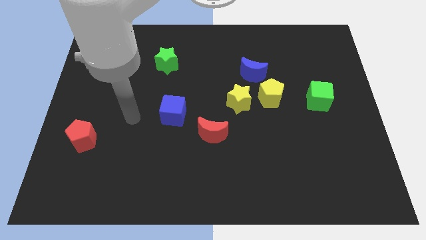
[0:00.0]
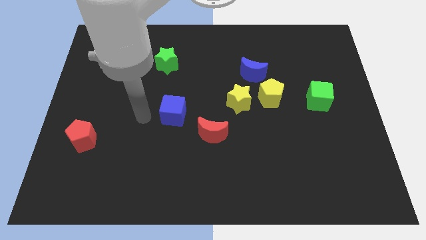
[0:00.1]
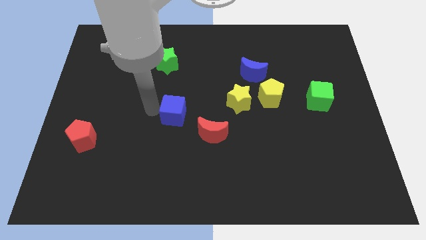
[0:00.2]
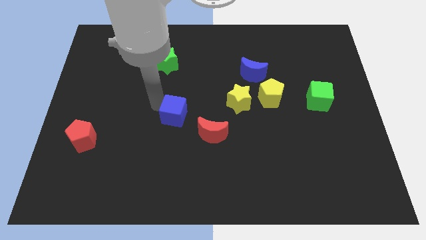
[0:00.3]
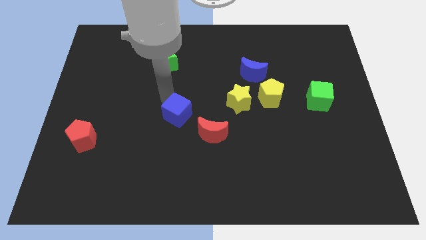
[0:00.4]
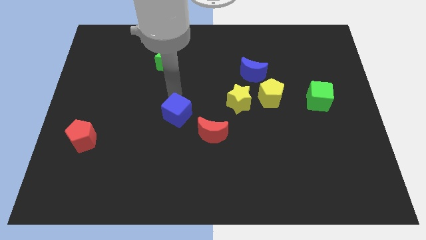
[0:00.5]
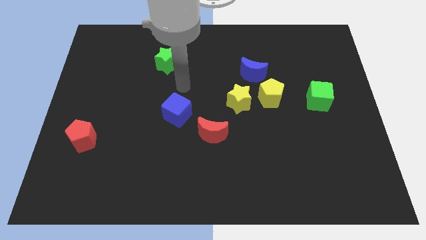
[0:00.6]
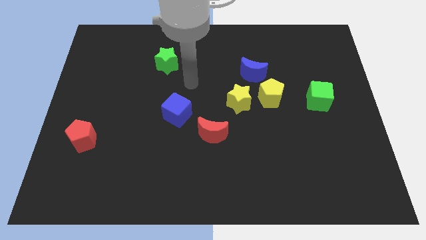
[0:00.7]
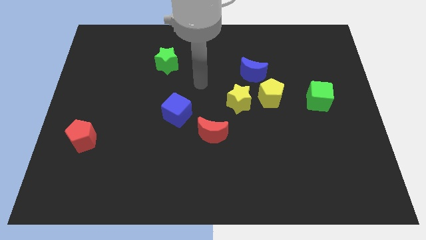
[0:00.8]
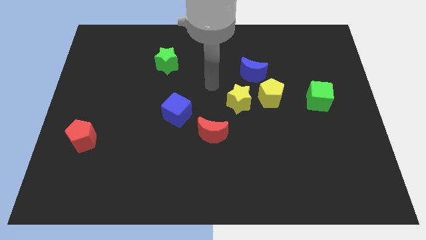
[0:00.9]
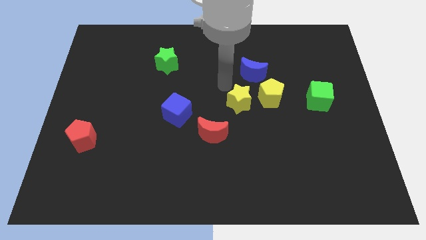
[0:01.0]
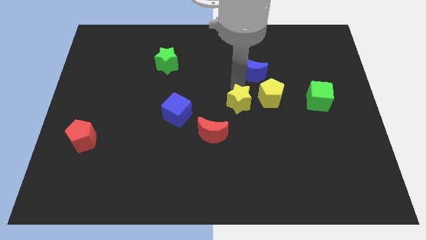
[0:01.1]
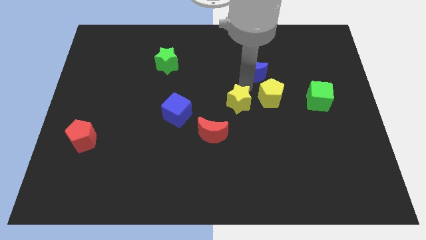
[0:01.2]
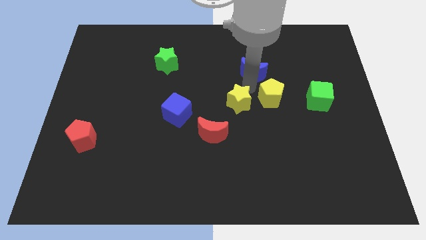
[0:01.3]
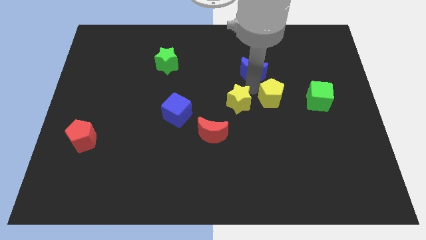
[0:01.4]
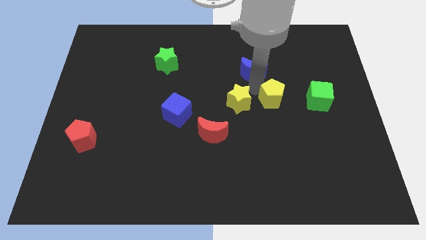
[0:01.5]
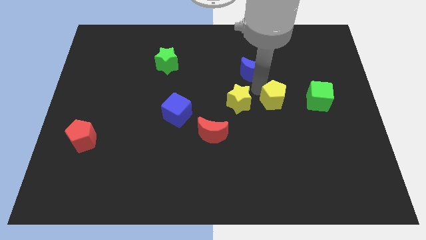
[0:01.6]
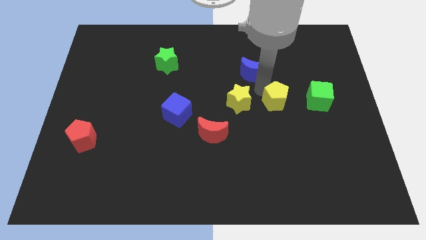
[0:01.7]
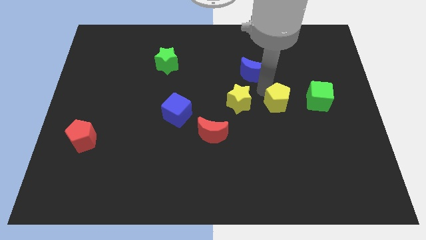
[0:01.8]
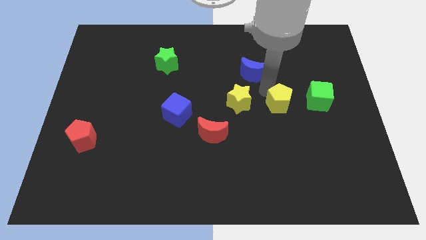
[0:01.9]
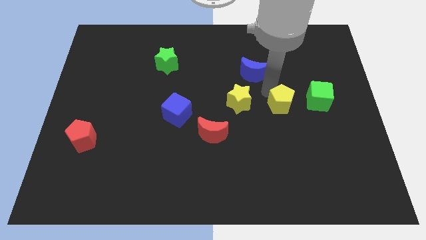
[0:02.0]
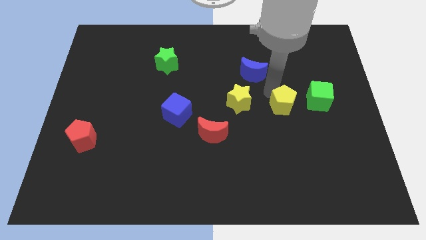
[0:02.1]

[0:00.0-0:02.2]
move the yellow pentagon away from the yellow star and blue moon

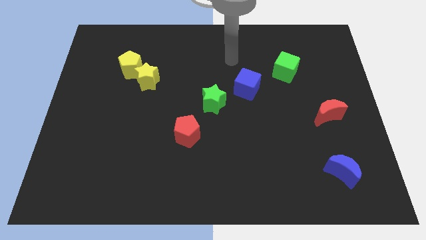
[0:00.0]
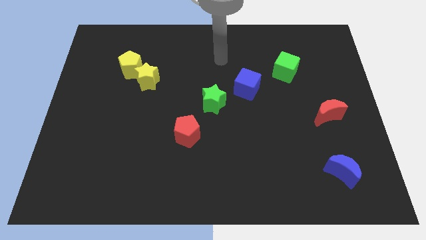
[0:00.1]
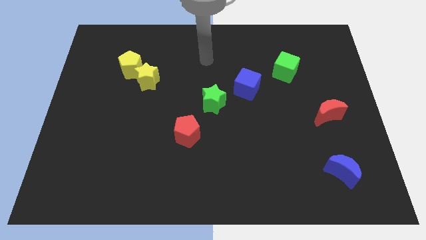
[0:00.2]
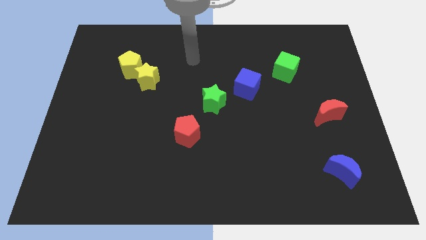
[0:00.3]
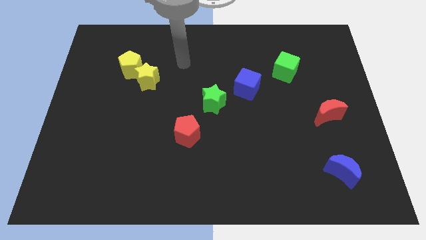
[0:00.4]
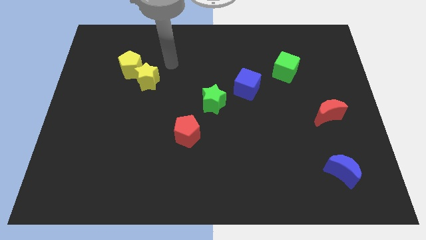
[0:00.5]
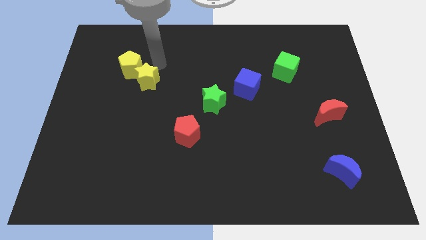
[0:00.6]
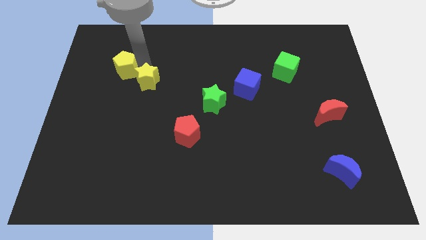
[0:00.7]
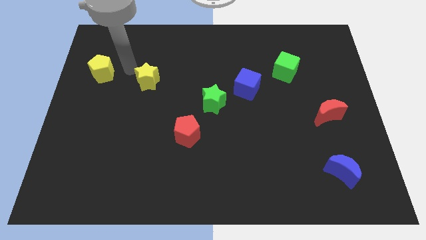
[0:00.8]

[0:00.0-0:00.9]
separate the yellow star from the yellow pentagon

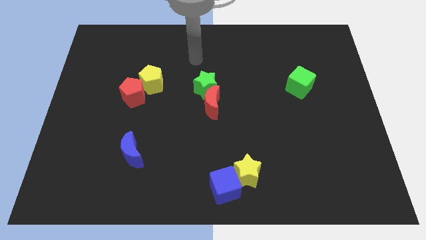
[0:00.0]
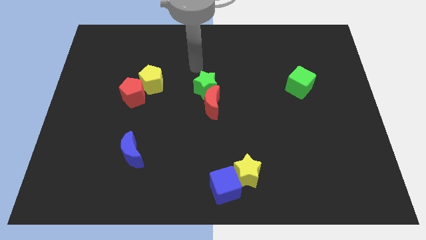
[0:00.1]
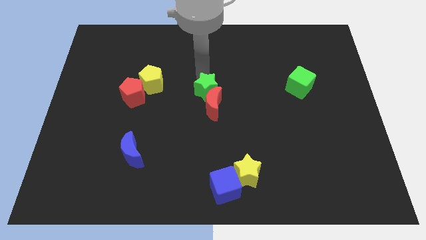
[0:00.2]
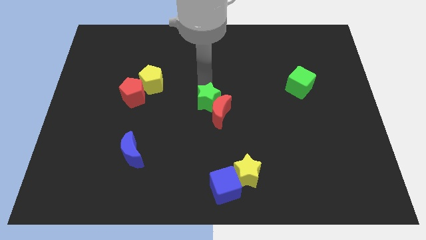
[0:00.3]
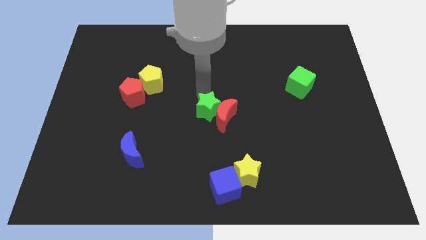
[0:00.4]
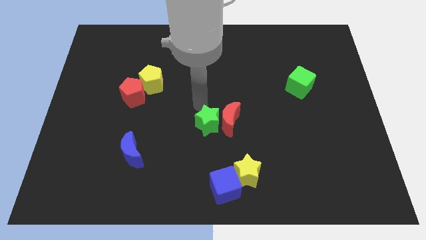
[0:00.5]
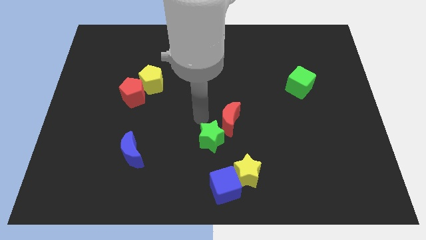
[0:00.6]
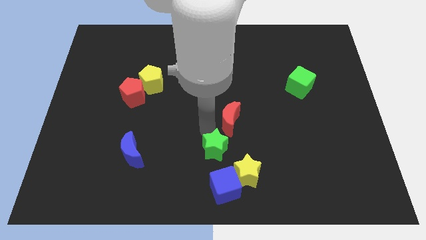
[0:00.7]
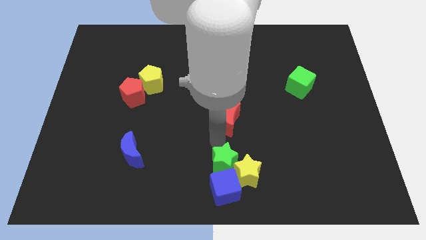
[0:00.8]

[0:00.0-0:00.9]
separate the red moon from the green star

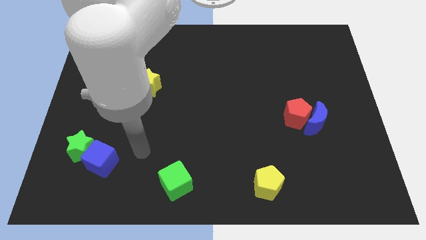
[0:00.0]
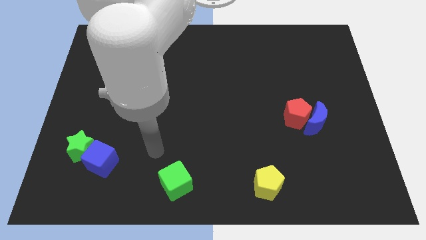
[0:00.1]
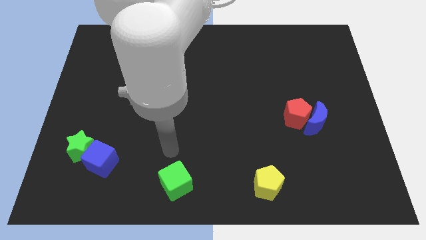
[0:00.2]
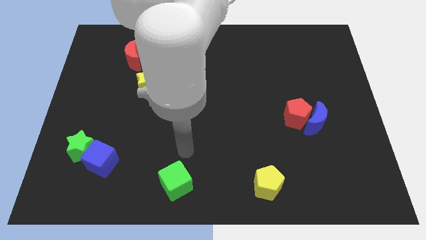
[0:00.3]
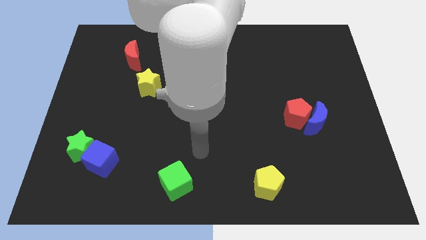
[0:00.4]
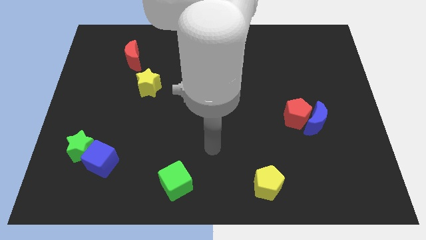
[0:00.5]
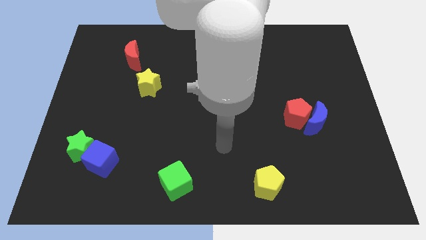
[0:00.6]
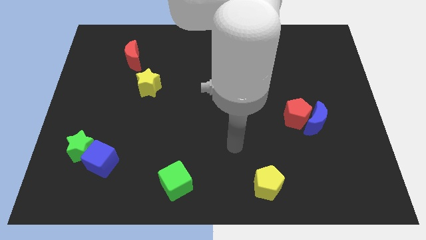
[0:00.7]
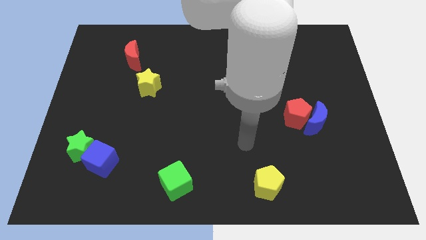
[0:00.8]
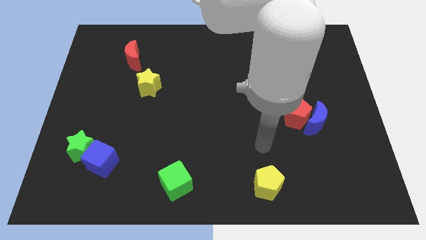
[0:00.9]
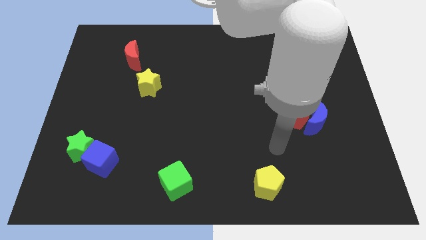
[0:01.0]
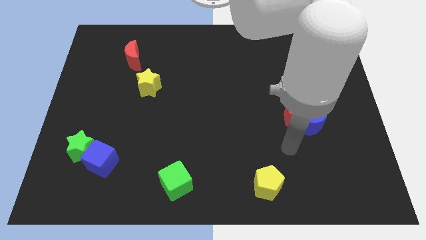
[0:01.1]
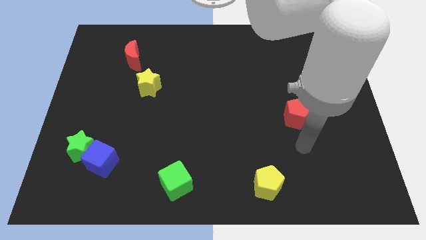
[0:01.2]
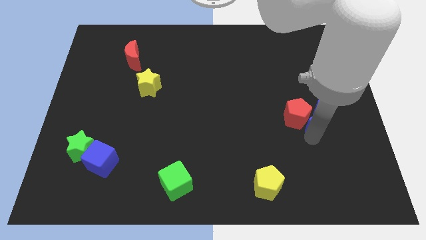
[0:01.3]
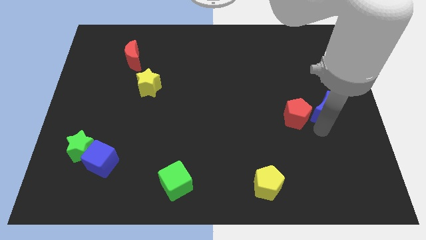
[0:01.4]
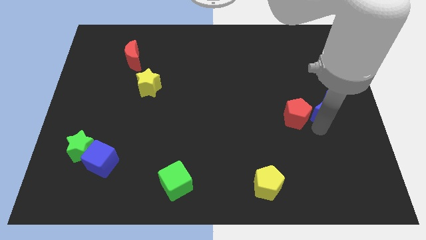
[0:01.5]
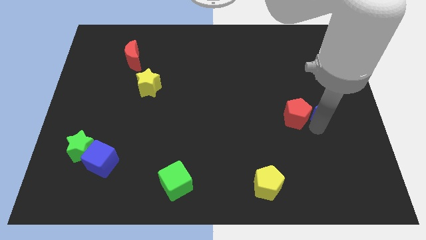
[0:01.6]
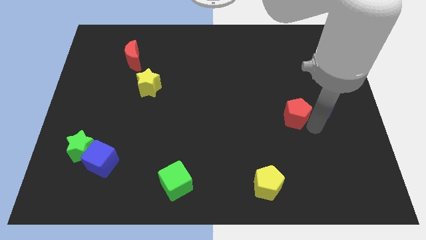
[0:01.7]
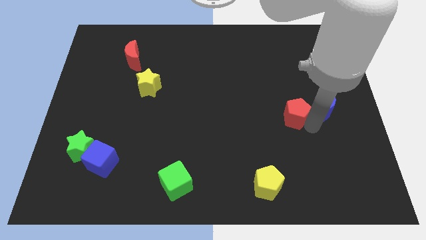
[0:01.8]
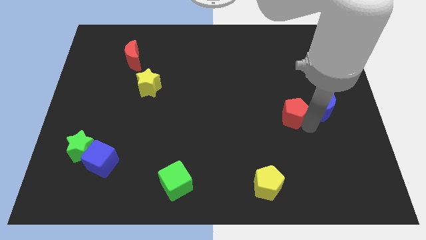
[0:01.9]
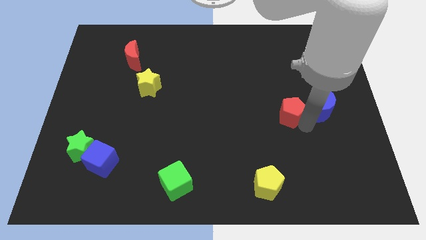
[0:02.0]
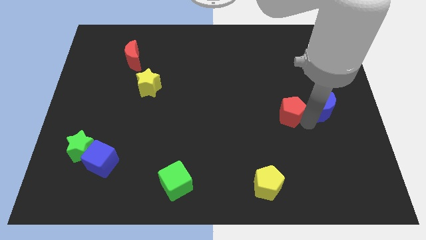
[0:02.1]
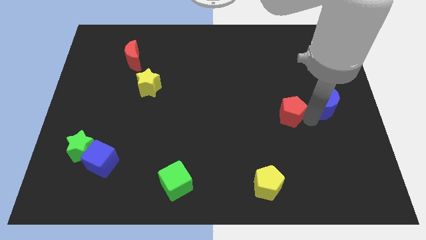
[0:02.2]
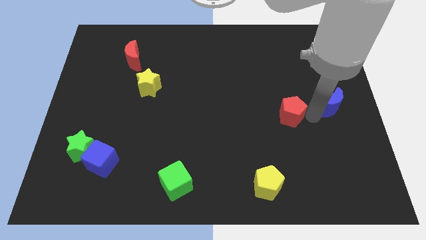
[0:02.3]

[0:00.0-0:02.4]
pull the red pentagon apart from the blue moon

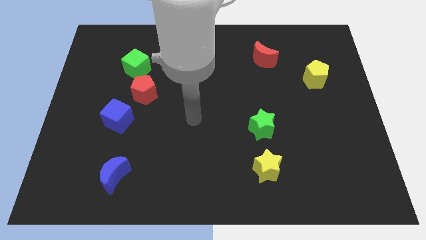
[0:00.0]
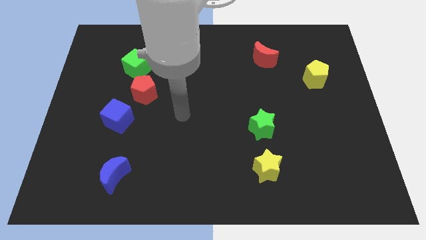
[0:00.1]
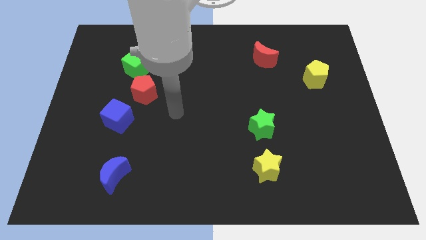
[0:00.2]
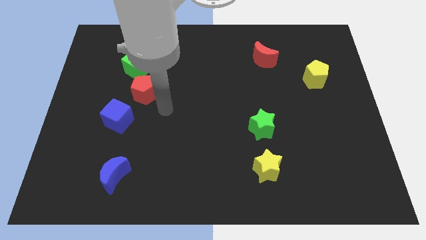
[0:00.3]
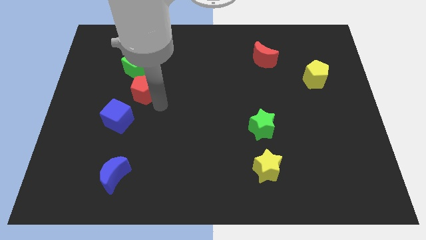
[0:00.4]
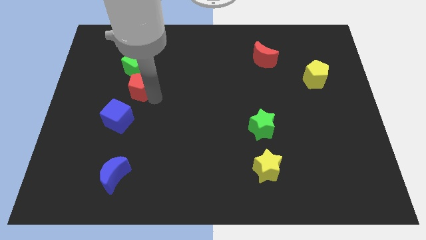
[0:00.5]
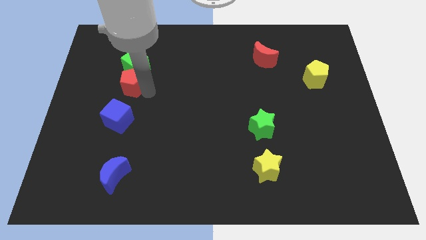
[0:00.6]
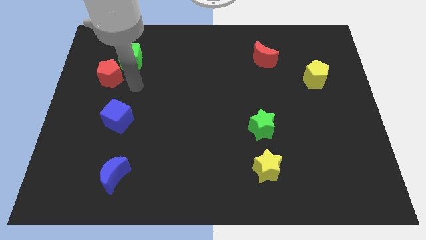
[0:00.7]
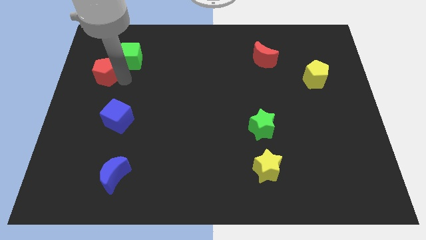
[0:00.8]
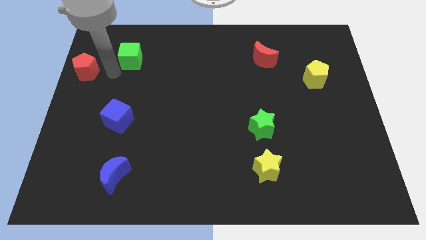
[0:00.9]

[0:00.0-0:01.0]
pull the green cube apart from the red pentagon

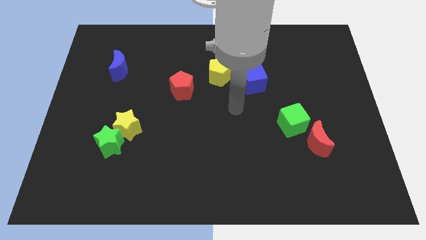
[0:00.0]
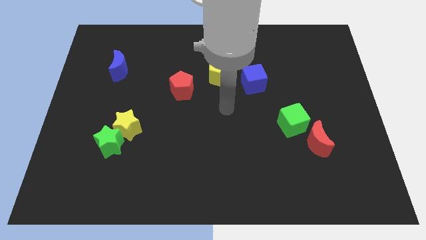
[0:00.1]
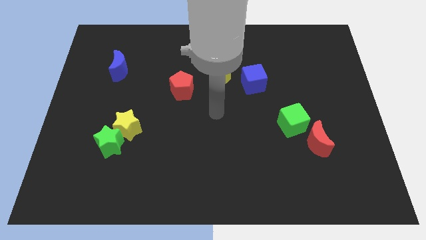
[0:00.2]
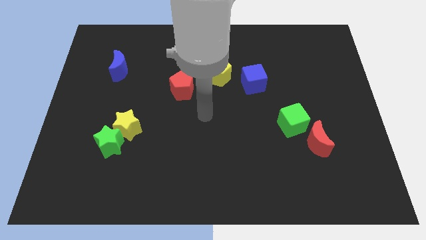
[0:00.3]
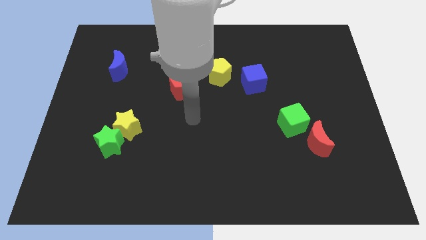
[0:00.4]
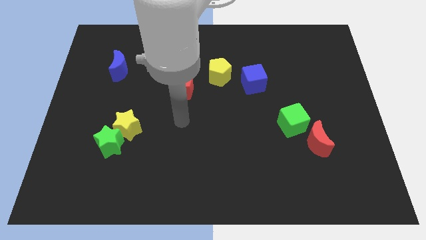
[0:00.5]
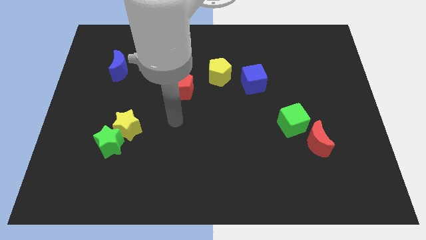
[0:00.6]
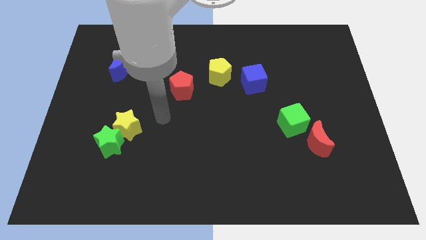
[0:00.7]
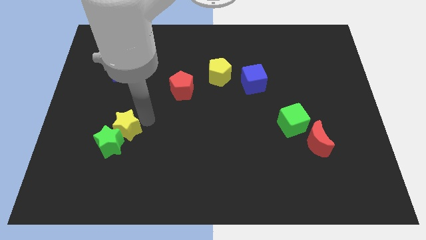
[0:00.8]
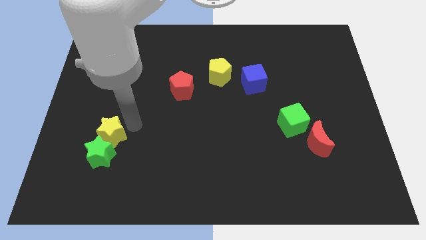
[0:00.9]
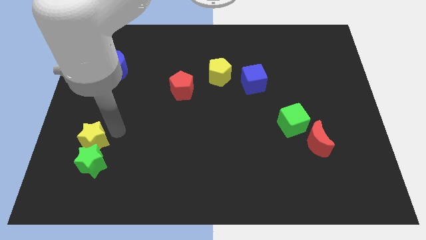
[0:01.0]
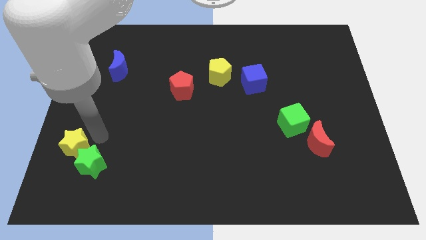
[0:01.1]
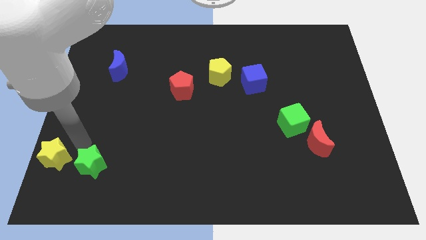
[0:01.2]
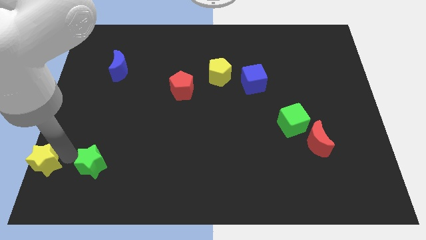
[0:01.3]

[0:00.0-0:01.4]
pull the green star apart from the yellow star

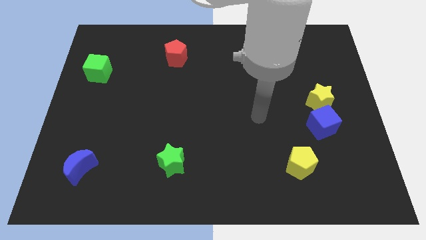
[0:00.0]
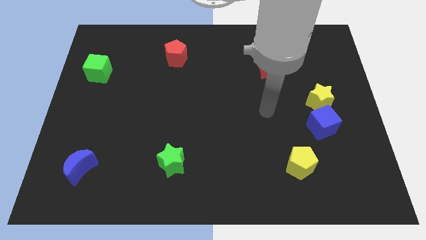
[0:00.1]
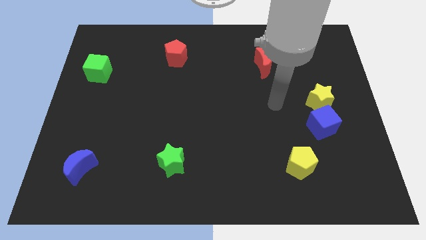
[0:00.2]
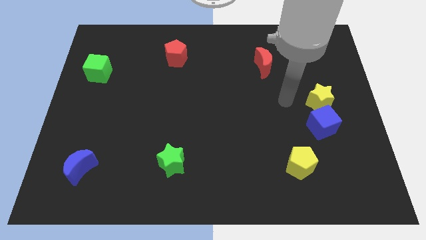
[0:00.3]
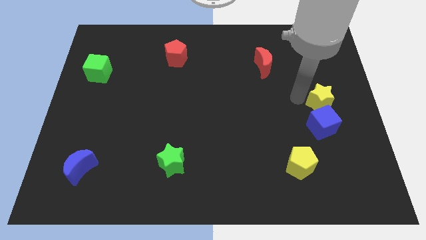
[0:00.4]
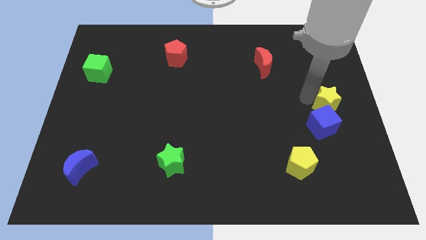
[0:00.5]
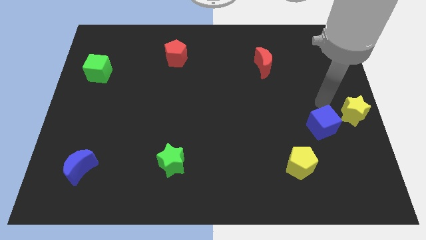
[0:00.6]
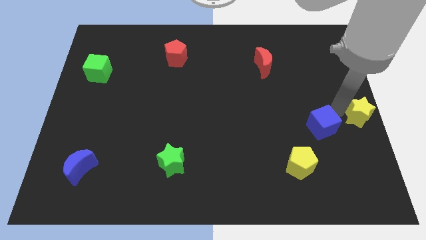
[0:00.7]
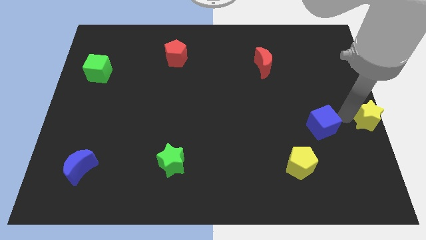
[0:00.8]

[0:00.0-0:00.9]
move the blue cube away from the yellow star
